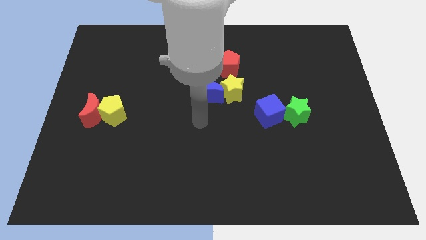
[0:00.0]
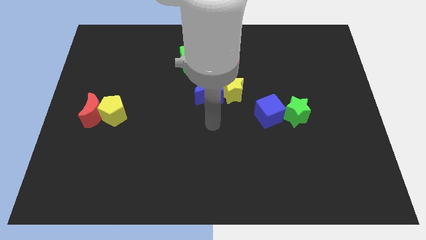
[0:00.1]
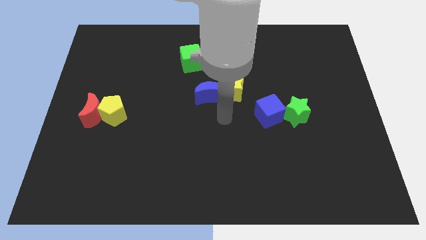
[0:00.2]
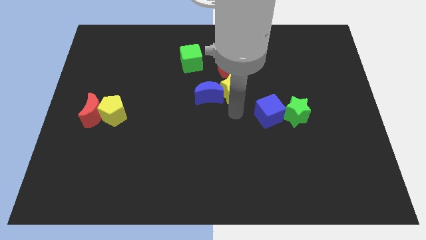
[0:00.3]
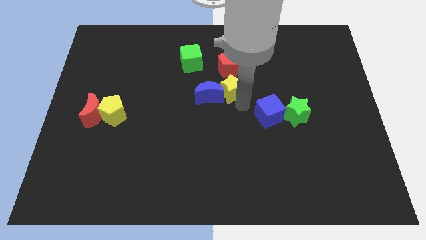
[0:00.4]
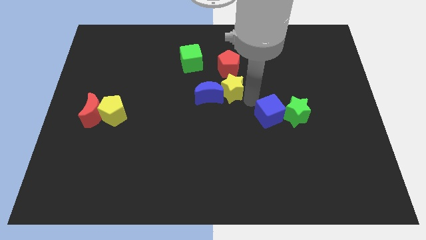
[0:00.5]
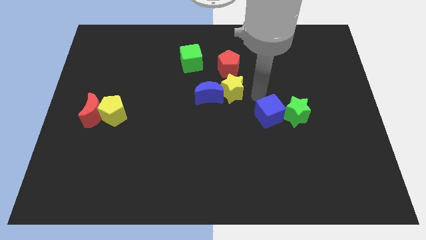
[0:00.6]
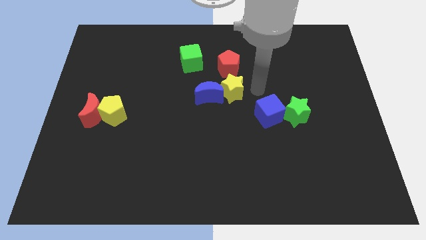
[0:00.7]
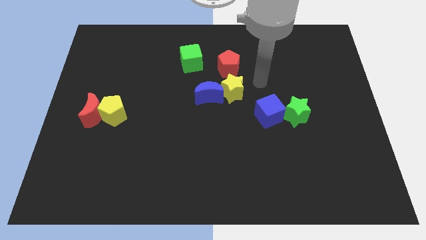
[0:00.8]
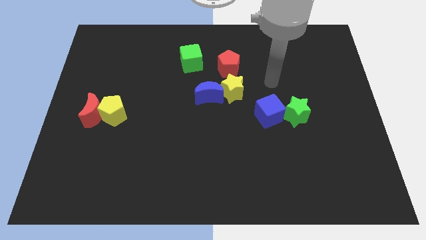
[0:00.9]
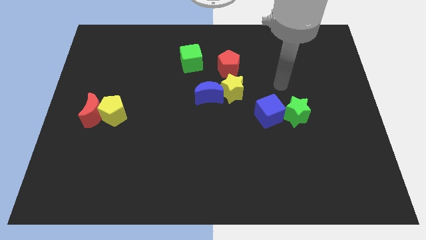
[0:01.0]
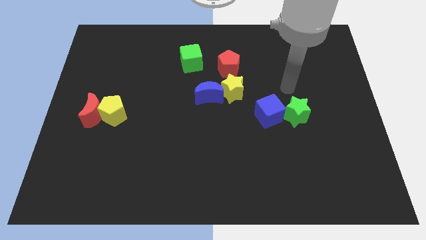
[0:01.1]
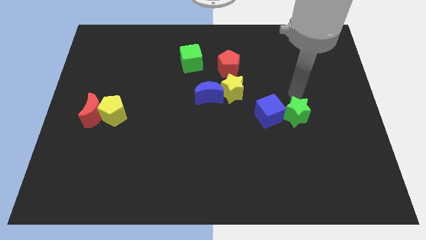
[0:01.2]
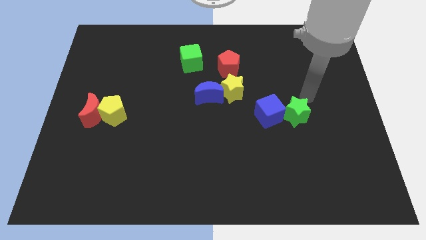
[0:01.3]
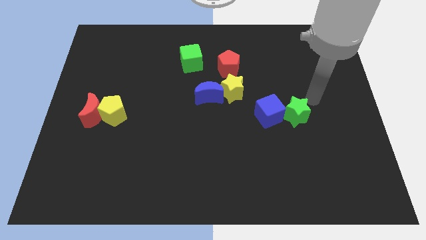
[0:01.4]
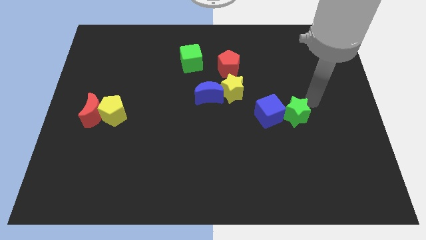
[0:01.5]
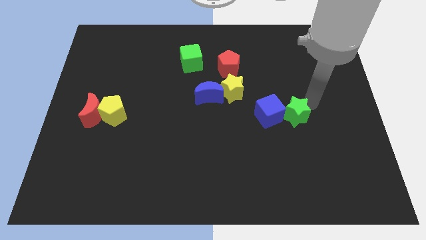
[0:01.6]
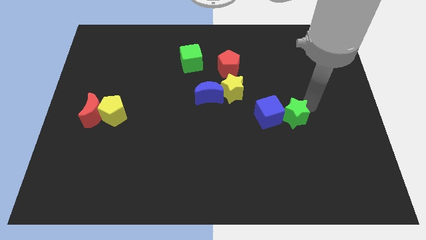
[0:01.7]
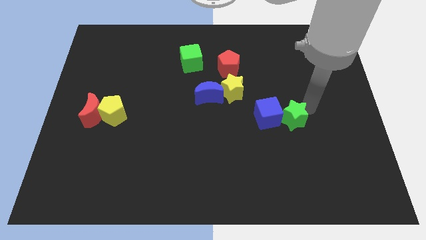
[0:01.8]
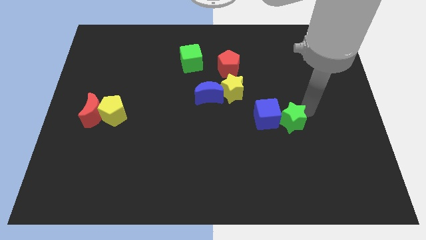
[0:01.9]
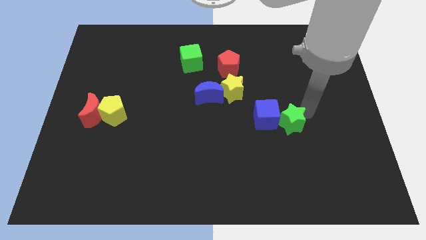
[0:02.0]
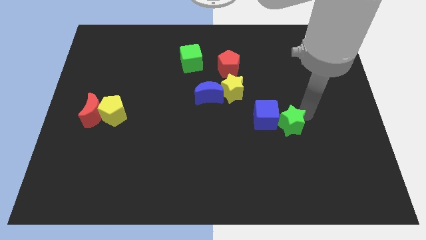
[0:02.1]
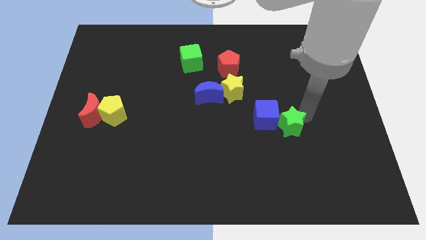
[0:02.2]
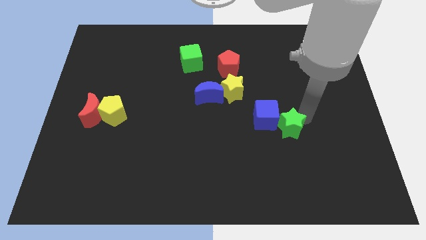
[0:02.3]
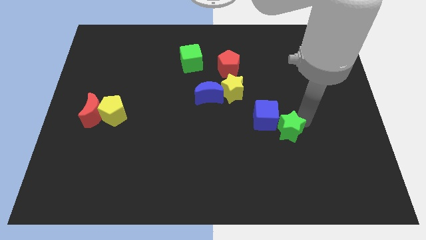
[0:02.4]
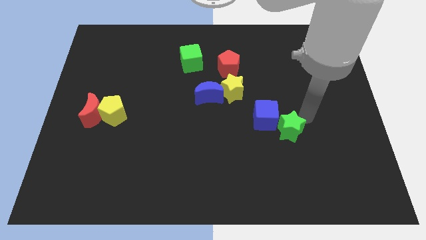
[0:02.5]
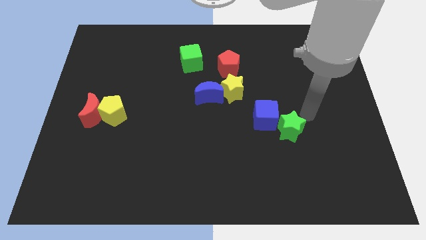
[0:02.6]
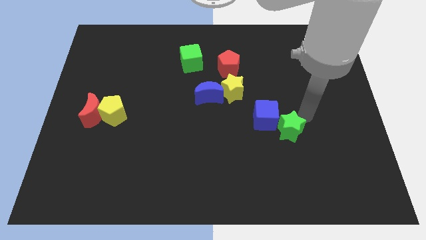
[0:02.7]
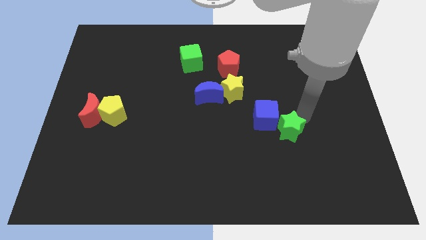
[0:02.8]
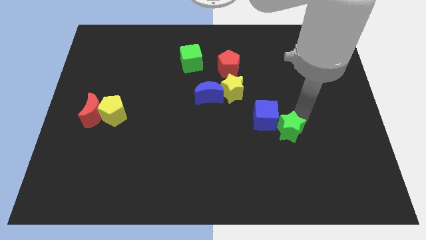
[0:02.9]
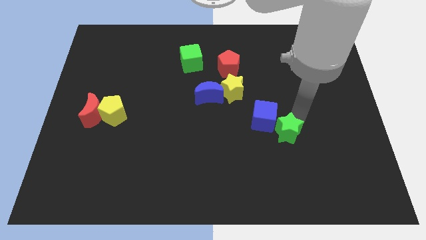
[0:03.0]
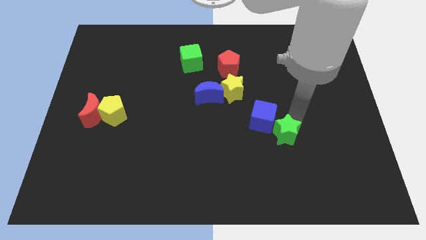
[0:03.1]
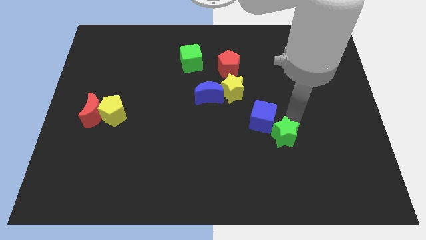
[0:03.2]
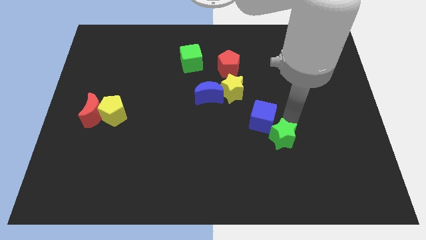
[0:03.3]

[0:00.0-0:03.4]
slightly push the green star down and left diagonally

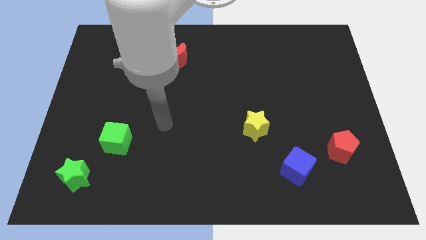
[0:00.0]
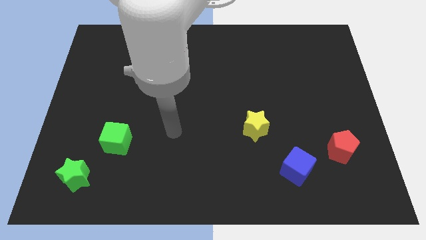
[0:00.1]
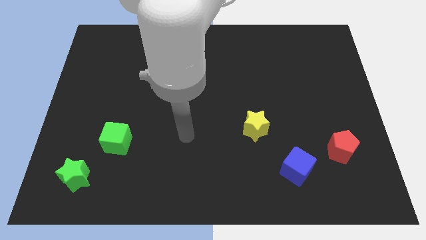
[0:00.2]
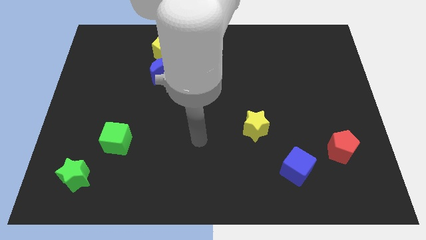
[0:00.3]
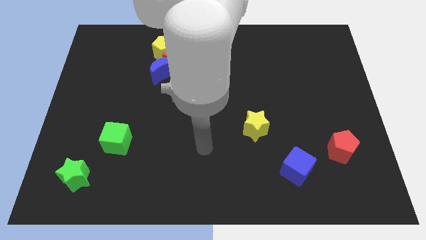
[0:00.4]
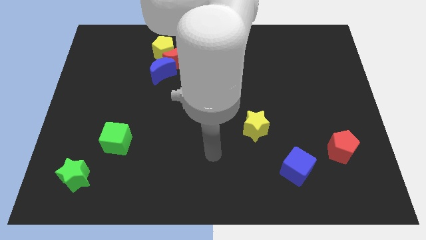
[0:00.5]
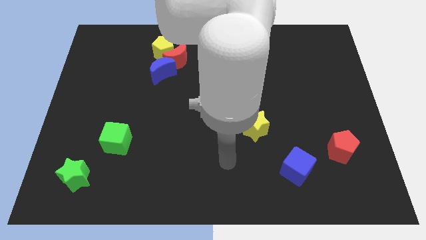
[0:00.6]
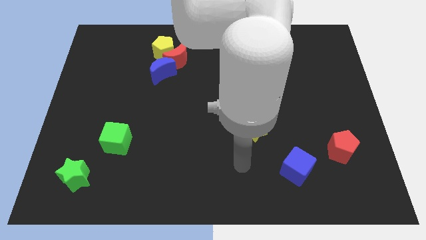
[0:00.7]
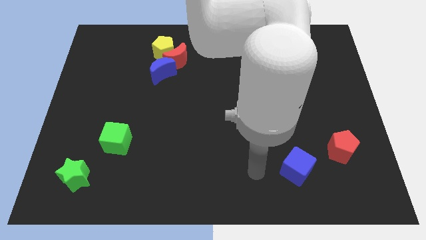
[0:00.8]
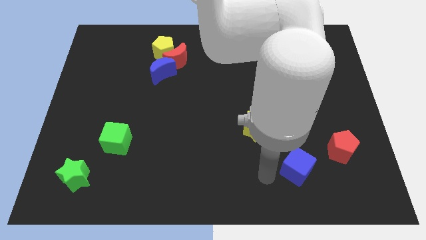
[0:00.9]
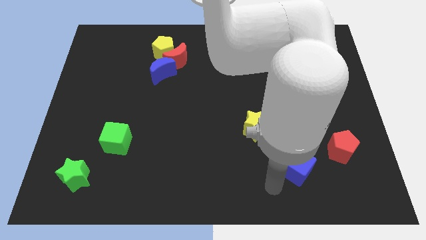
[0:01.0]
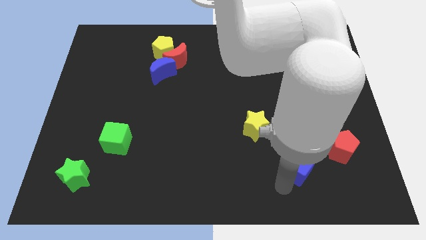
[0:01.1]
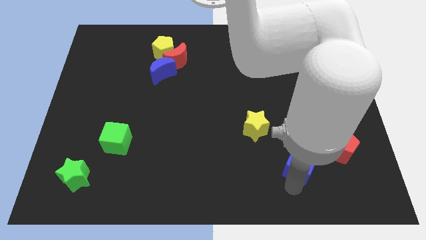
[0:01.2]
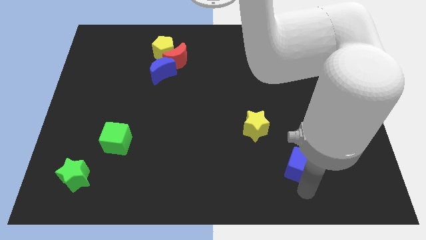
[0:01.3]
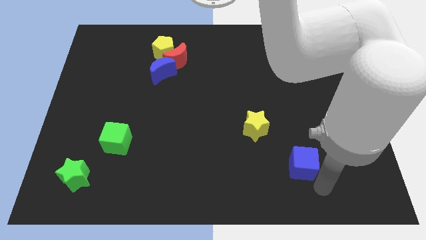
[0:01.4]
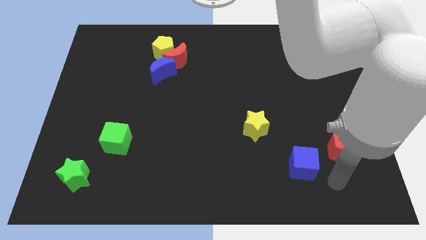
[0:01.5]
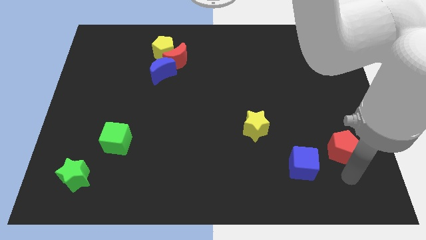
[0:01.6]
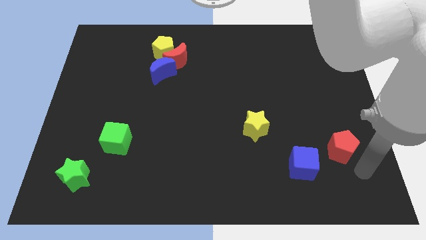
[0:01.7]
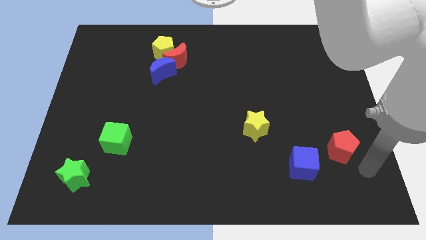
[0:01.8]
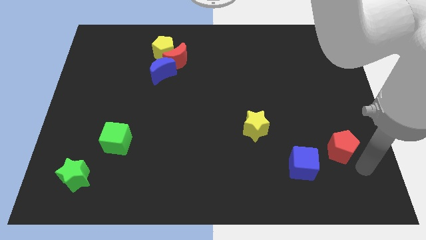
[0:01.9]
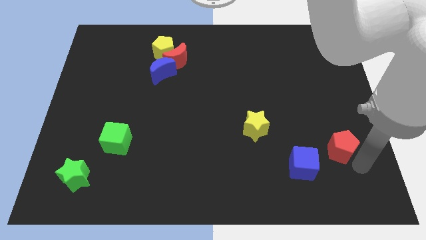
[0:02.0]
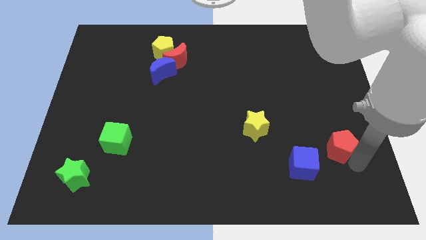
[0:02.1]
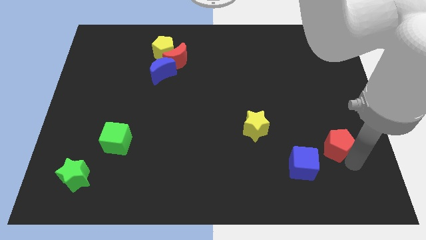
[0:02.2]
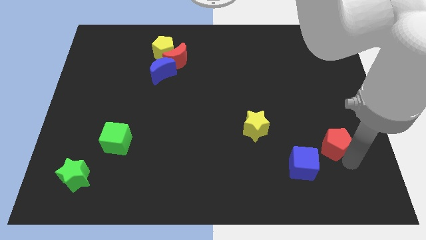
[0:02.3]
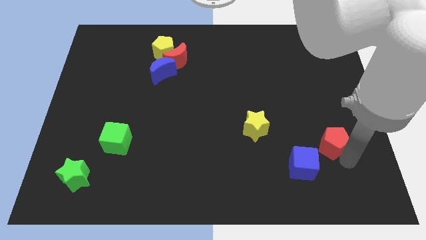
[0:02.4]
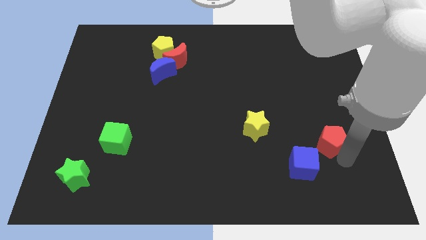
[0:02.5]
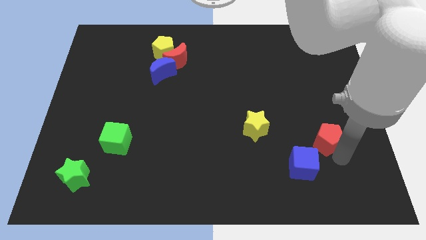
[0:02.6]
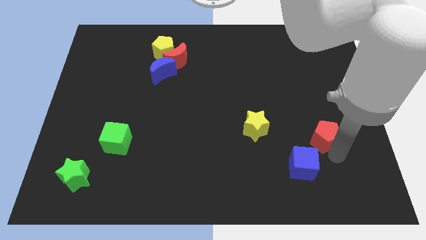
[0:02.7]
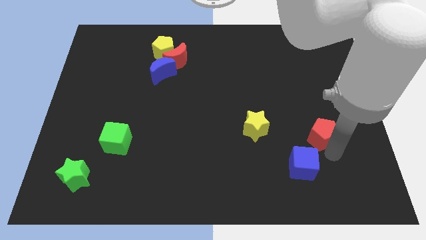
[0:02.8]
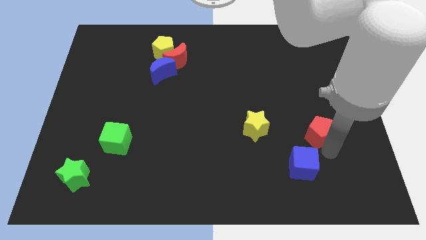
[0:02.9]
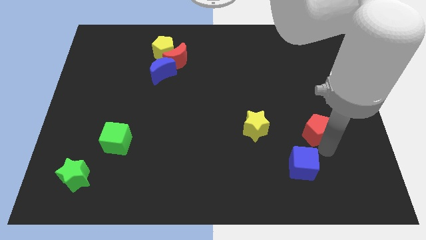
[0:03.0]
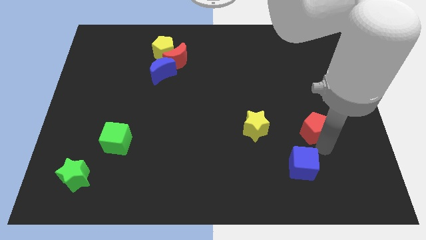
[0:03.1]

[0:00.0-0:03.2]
slightly push the red pentagon up and left

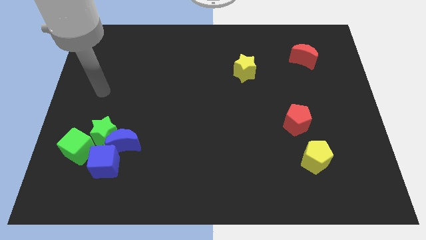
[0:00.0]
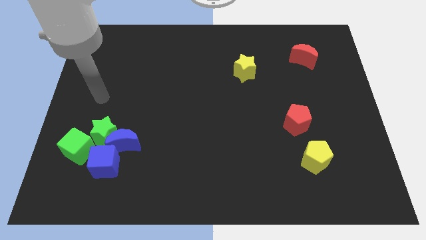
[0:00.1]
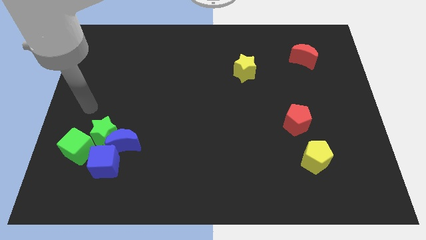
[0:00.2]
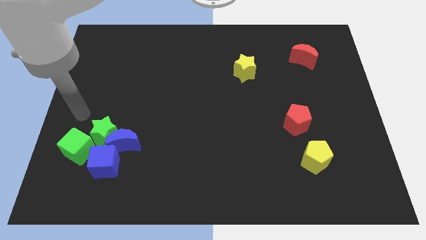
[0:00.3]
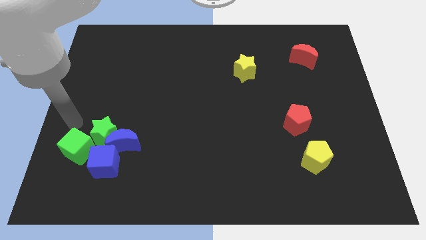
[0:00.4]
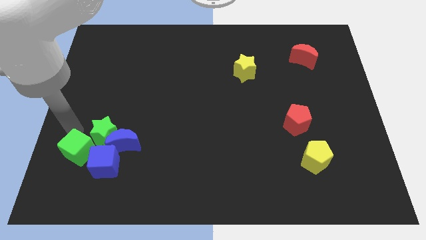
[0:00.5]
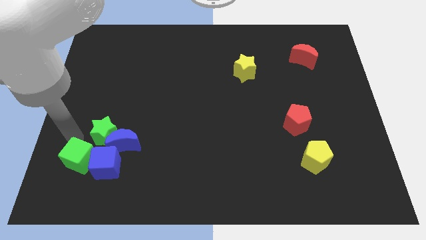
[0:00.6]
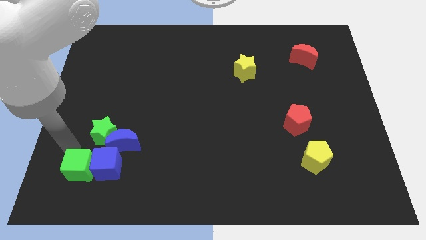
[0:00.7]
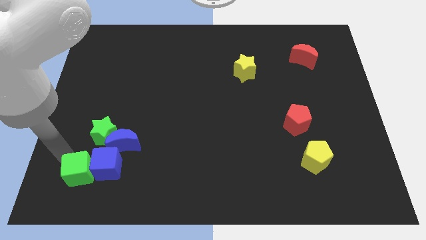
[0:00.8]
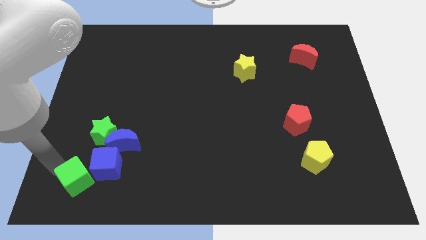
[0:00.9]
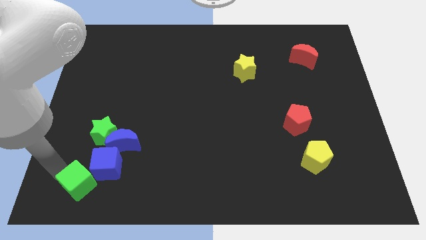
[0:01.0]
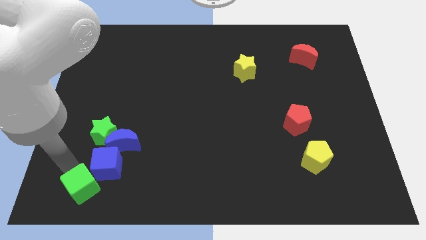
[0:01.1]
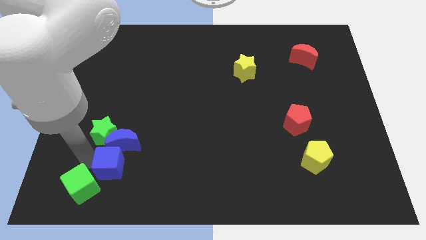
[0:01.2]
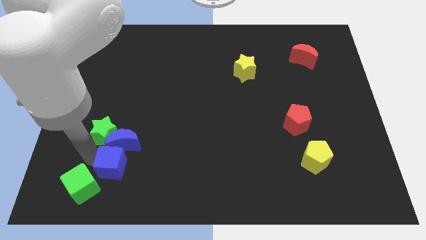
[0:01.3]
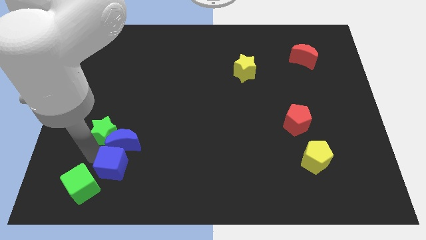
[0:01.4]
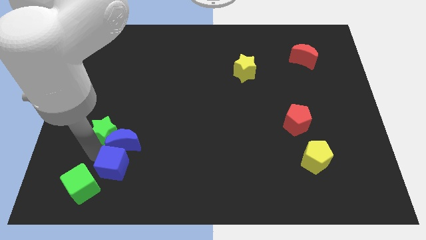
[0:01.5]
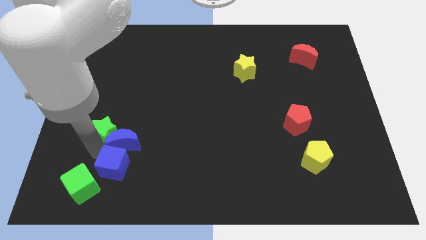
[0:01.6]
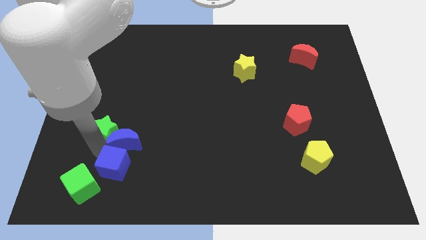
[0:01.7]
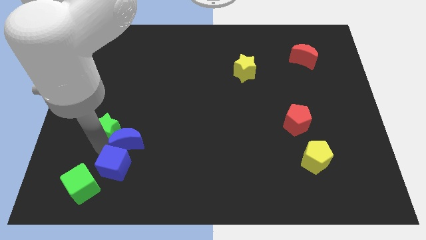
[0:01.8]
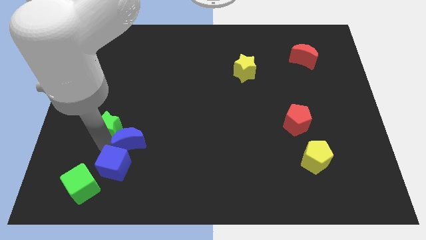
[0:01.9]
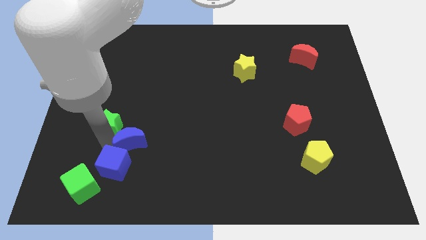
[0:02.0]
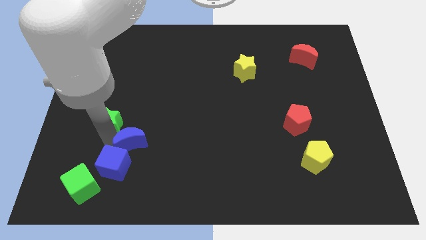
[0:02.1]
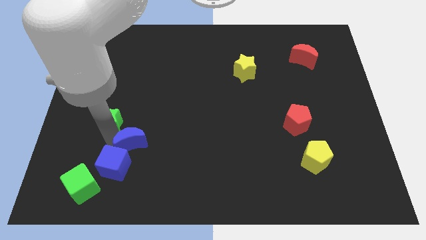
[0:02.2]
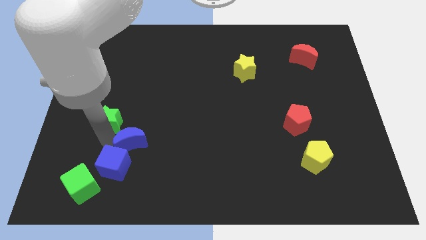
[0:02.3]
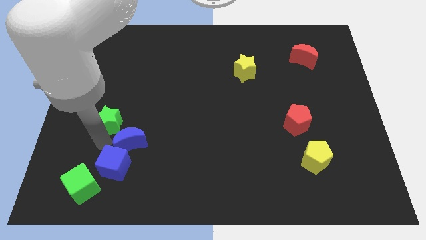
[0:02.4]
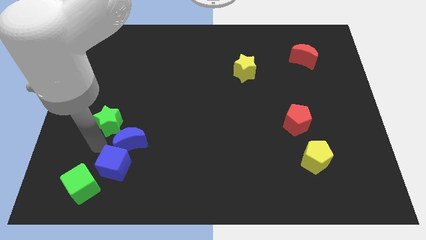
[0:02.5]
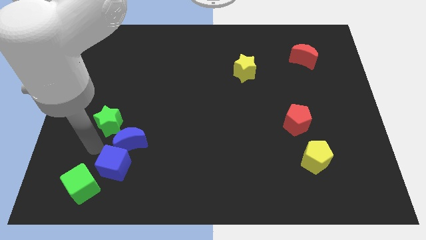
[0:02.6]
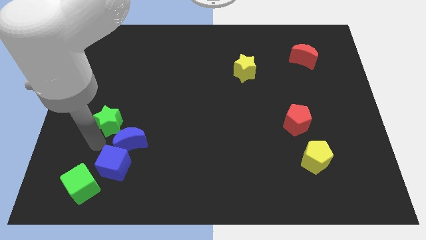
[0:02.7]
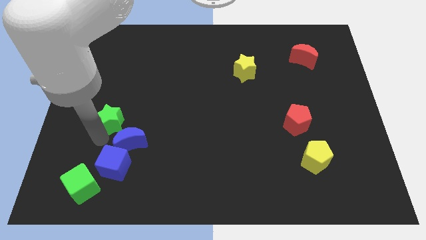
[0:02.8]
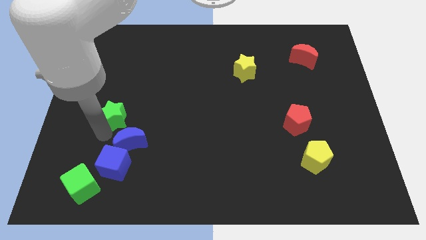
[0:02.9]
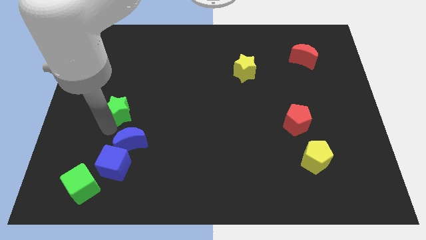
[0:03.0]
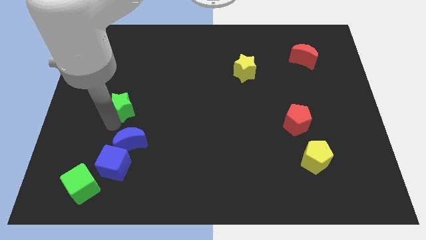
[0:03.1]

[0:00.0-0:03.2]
move the green star up a little
